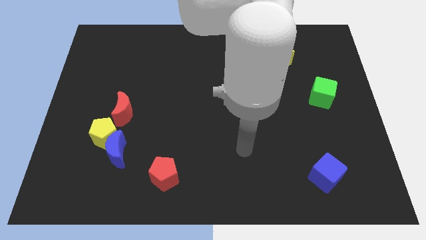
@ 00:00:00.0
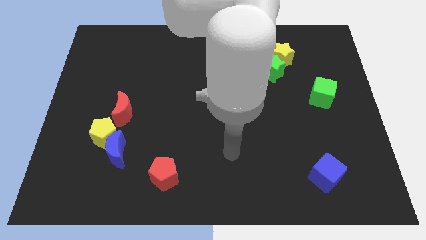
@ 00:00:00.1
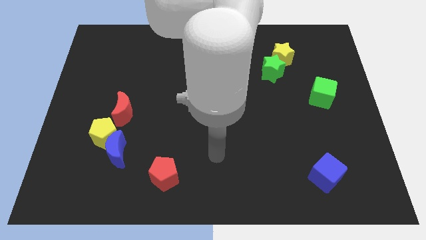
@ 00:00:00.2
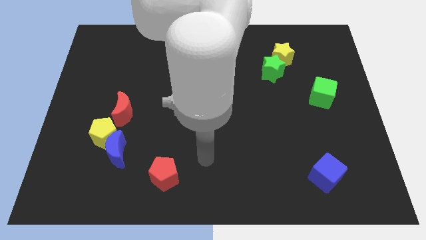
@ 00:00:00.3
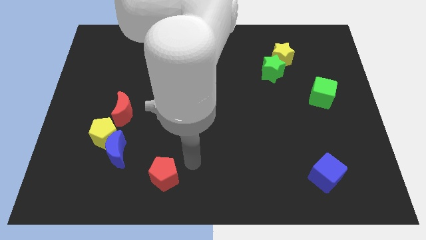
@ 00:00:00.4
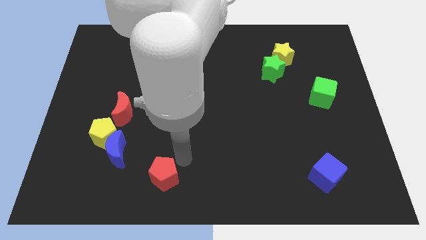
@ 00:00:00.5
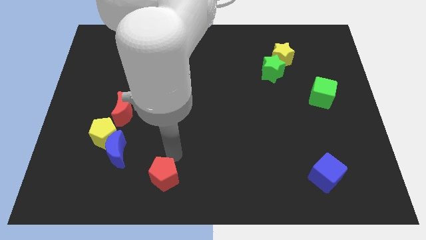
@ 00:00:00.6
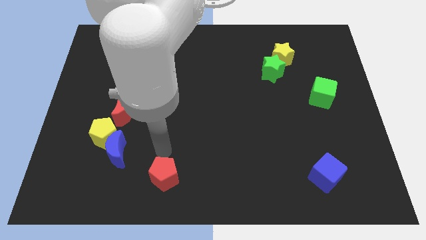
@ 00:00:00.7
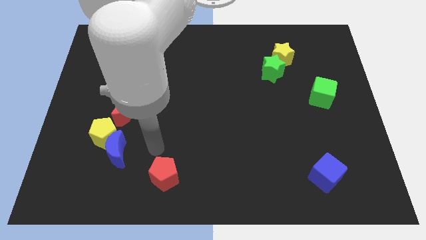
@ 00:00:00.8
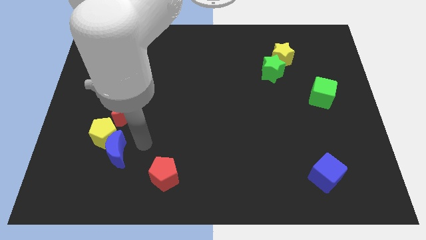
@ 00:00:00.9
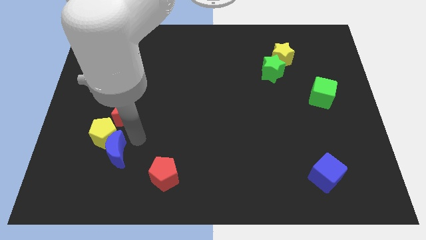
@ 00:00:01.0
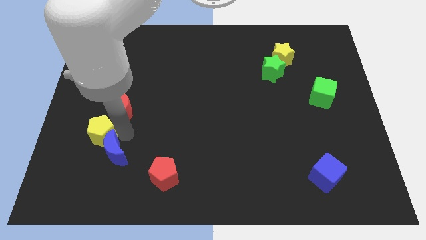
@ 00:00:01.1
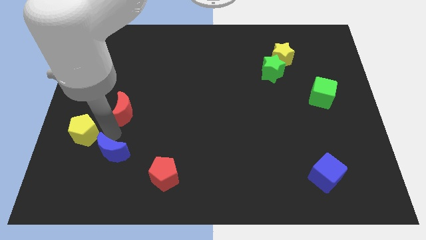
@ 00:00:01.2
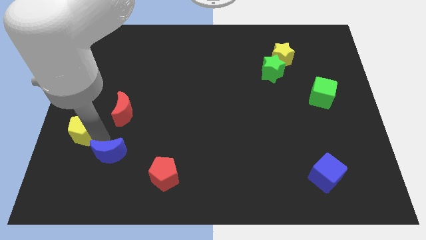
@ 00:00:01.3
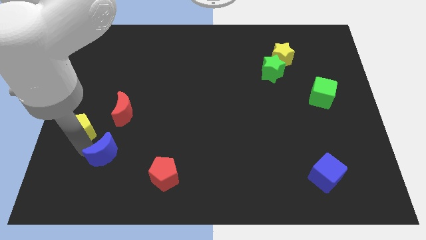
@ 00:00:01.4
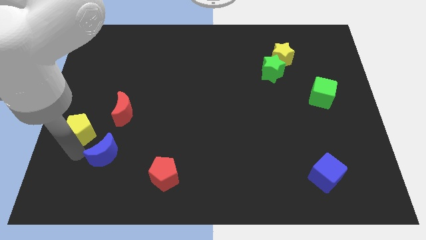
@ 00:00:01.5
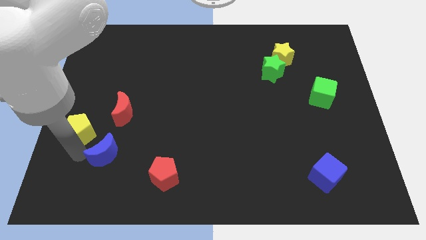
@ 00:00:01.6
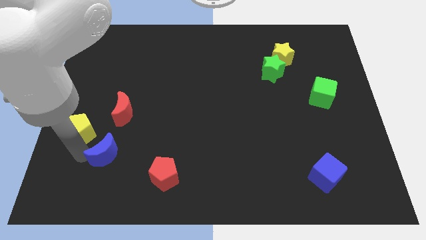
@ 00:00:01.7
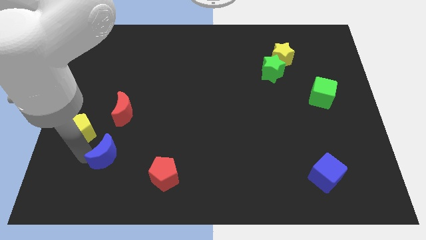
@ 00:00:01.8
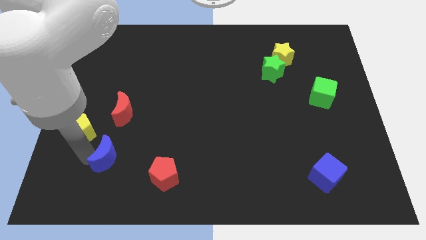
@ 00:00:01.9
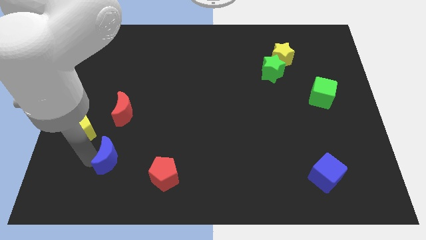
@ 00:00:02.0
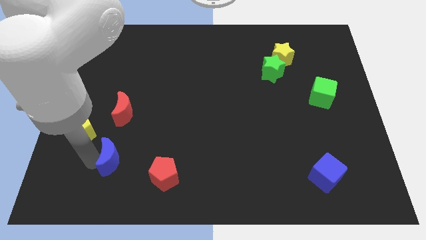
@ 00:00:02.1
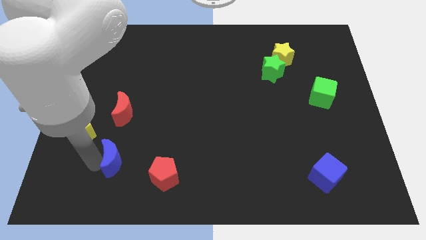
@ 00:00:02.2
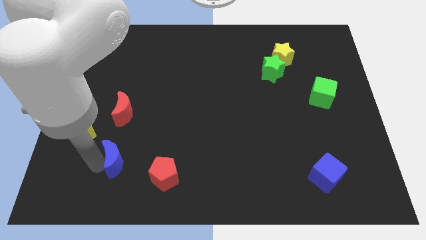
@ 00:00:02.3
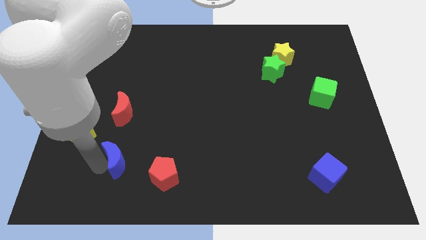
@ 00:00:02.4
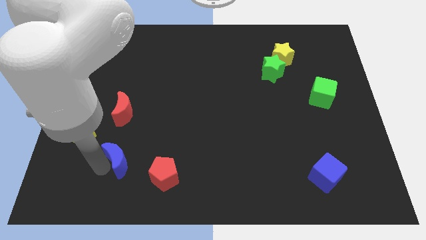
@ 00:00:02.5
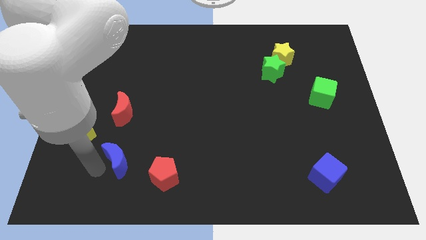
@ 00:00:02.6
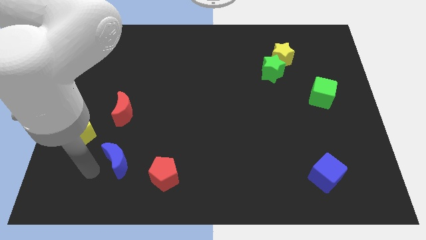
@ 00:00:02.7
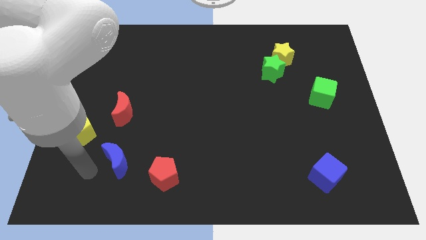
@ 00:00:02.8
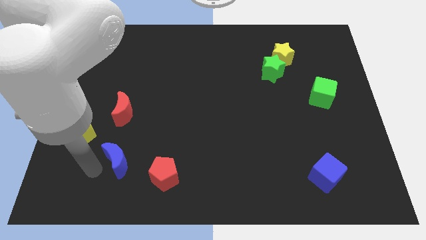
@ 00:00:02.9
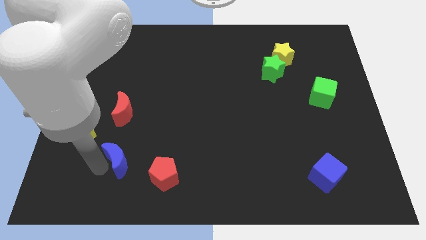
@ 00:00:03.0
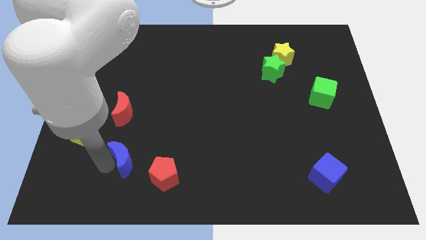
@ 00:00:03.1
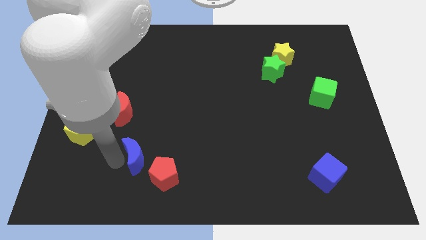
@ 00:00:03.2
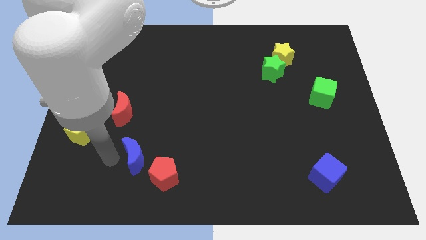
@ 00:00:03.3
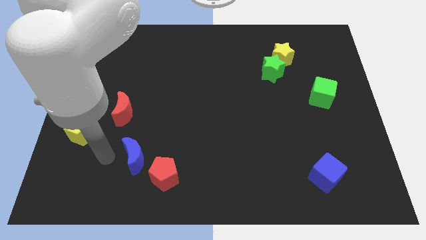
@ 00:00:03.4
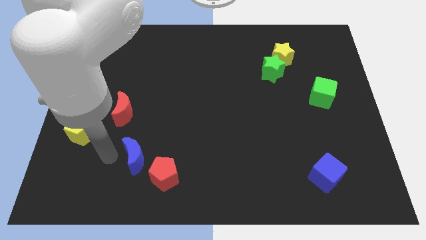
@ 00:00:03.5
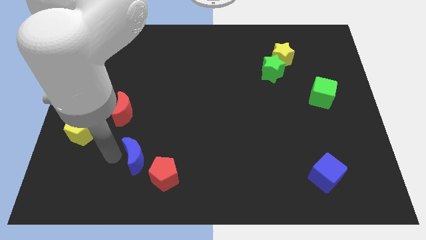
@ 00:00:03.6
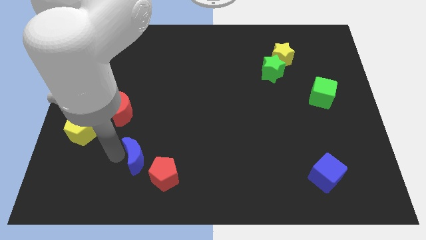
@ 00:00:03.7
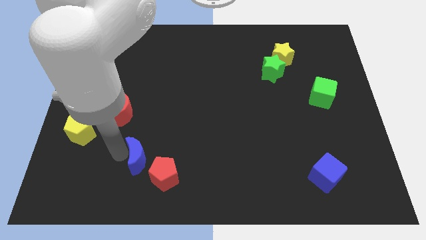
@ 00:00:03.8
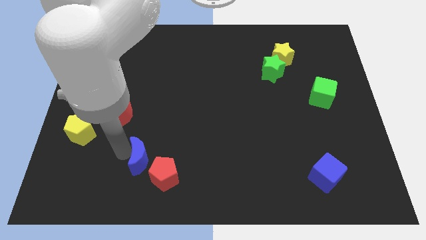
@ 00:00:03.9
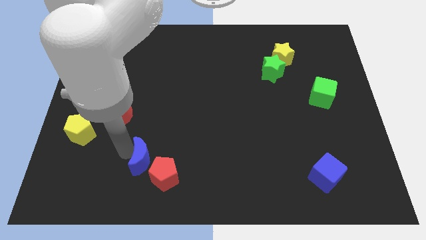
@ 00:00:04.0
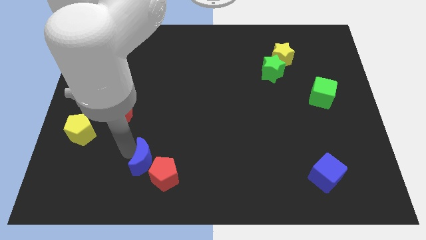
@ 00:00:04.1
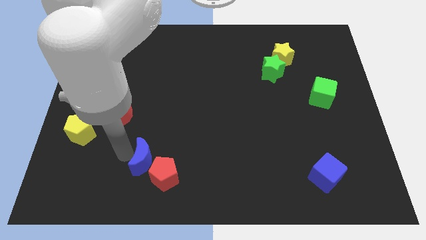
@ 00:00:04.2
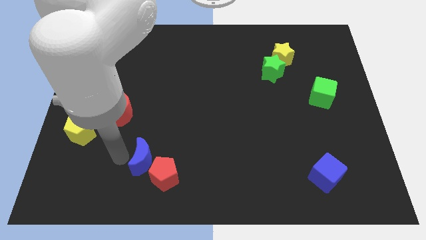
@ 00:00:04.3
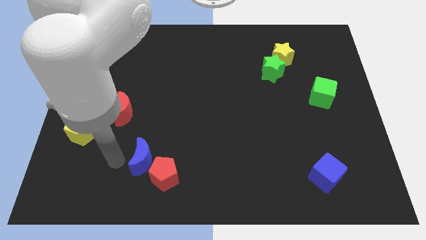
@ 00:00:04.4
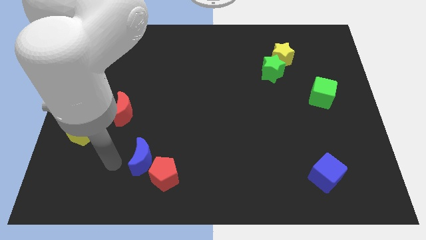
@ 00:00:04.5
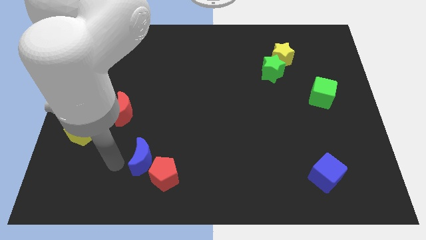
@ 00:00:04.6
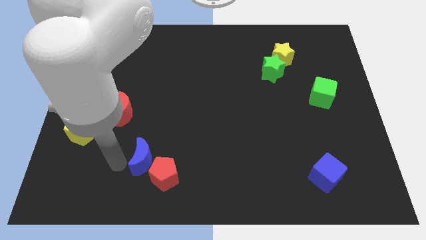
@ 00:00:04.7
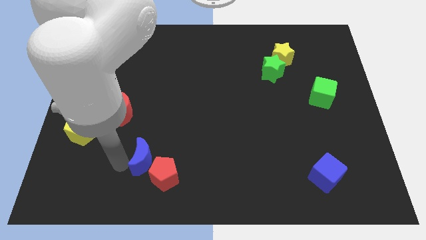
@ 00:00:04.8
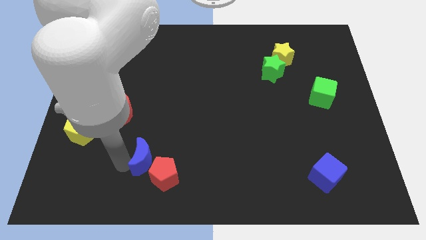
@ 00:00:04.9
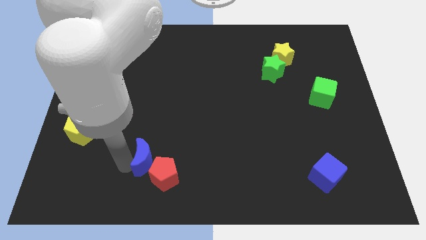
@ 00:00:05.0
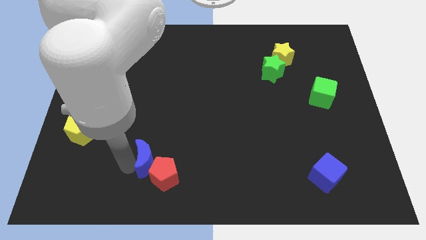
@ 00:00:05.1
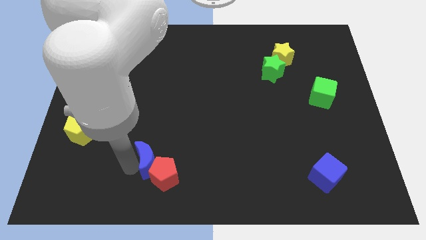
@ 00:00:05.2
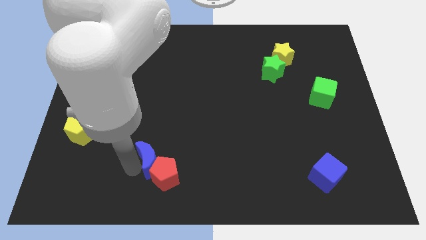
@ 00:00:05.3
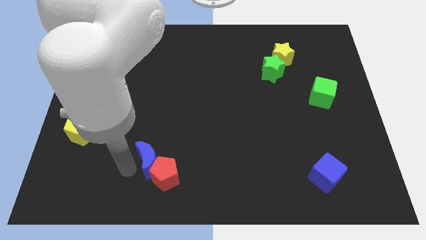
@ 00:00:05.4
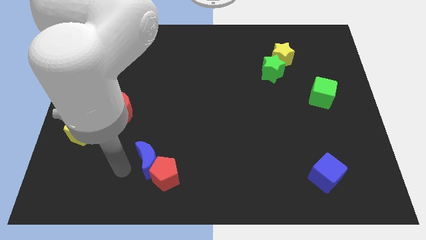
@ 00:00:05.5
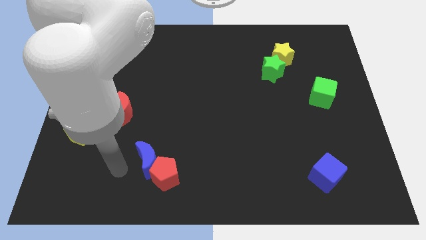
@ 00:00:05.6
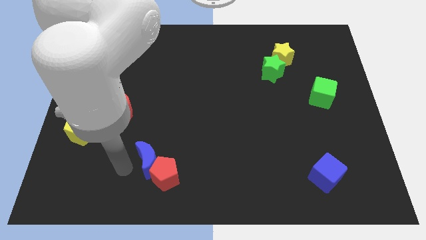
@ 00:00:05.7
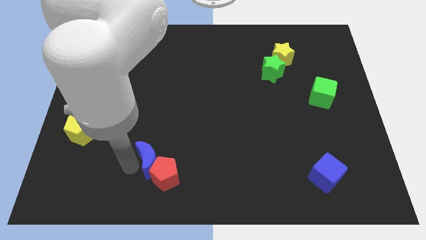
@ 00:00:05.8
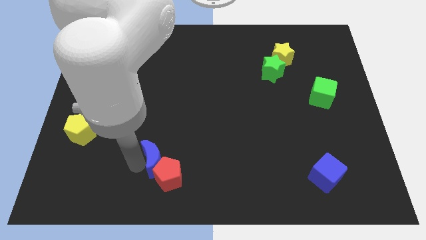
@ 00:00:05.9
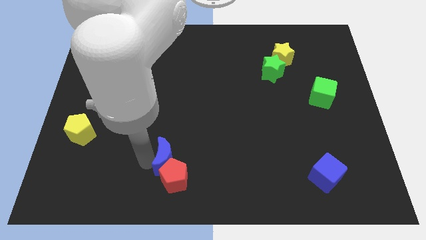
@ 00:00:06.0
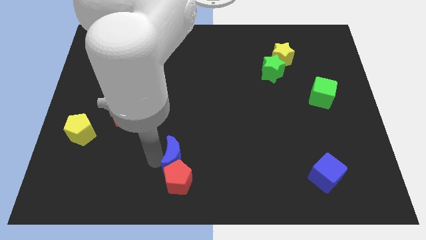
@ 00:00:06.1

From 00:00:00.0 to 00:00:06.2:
slide the blue moon to the top right of the red pentagon
